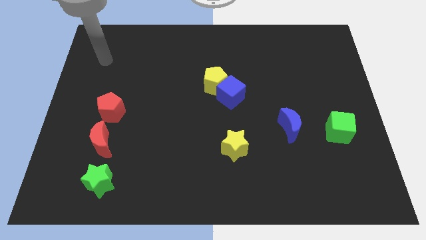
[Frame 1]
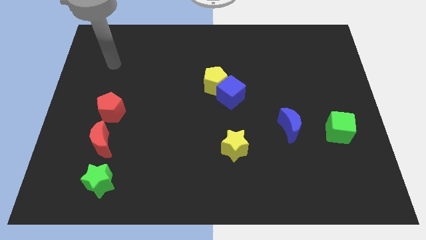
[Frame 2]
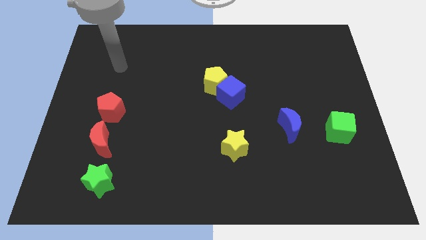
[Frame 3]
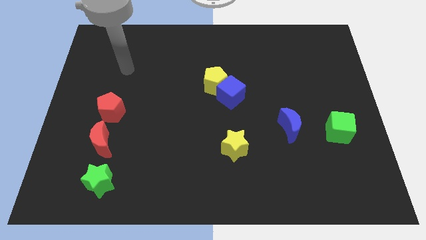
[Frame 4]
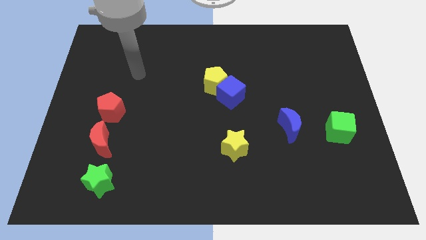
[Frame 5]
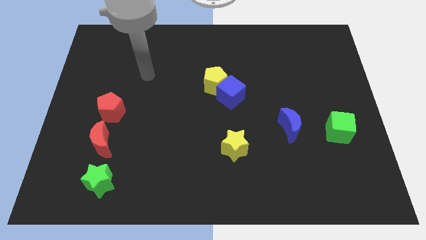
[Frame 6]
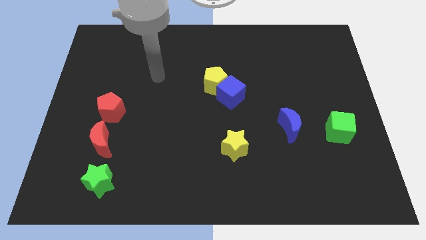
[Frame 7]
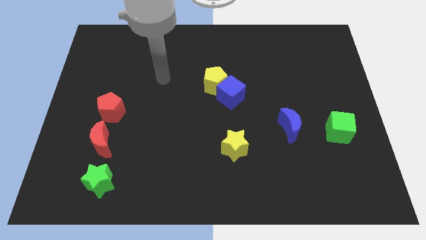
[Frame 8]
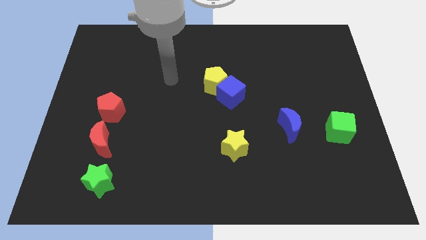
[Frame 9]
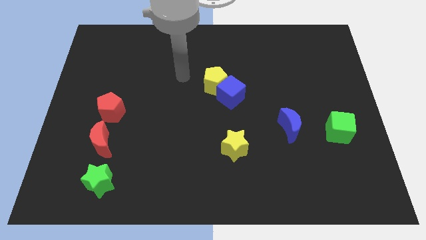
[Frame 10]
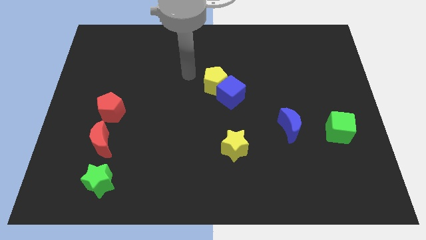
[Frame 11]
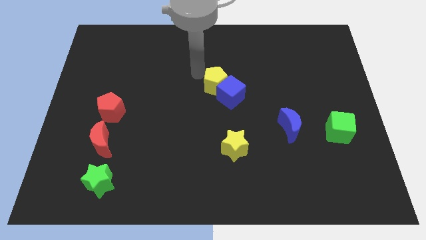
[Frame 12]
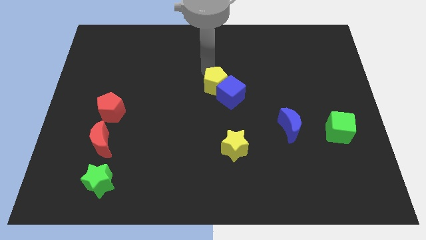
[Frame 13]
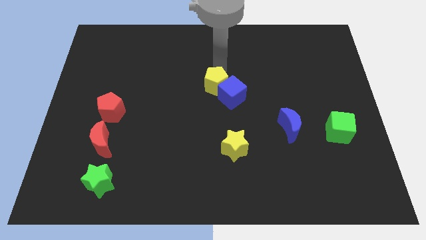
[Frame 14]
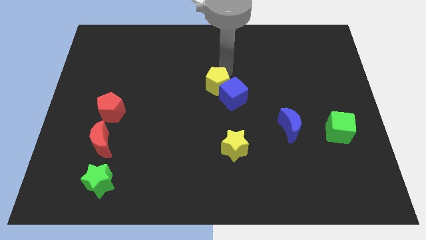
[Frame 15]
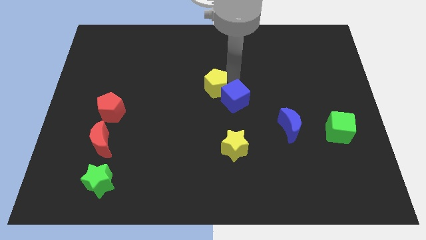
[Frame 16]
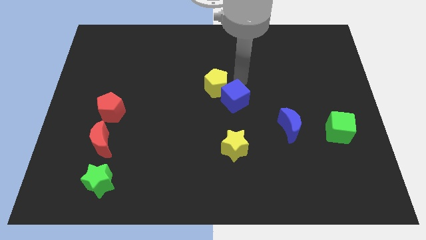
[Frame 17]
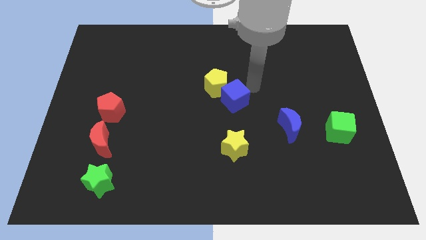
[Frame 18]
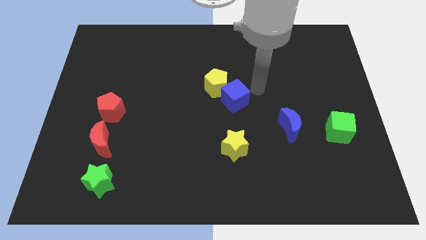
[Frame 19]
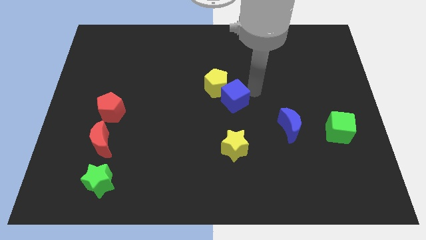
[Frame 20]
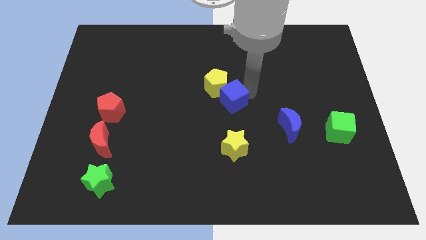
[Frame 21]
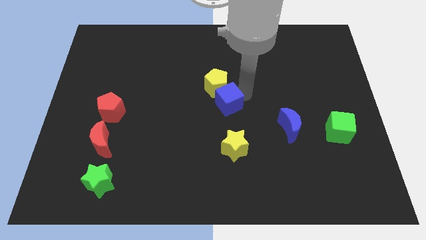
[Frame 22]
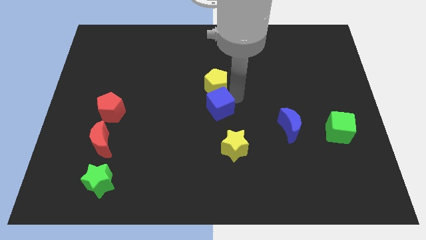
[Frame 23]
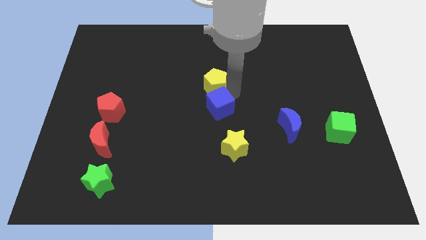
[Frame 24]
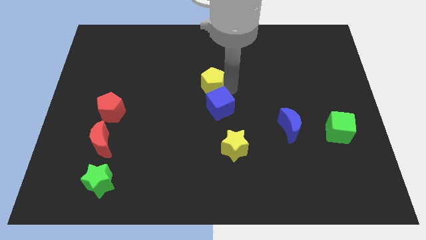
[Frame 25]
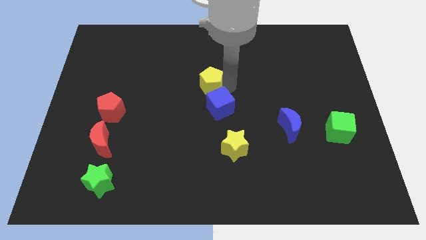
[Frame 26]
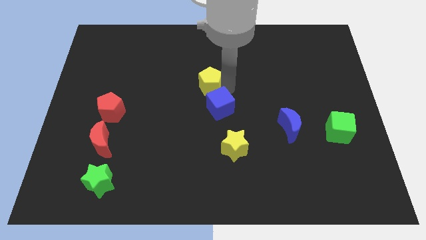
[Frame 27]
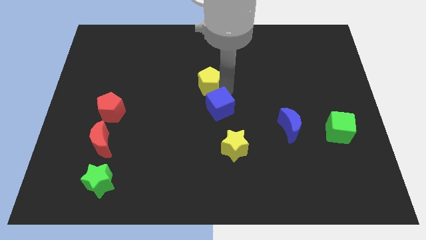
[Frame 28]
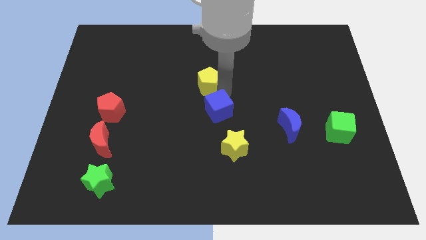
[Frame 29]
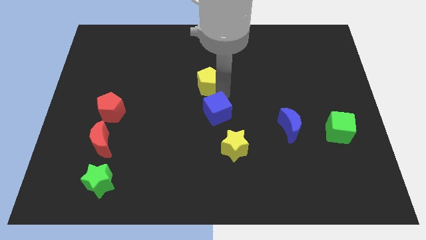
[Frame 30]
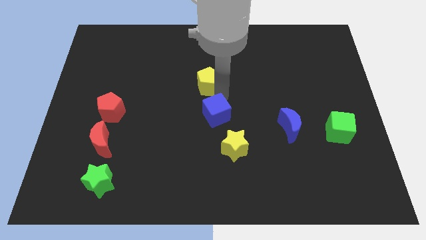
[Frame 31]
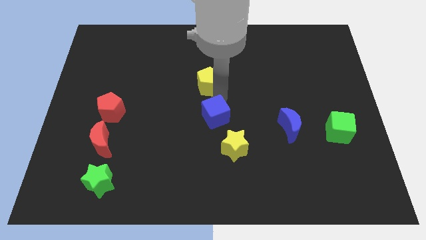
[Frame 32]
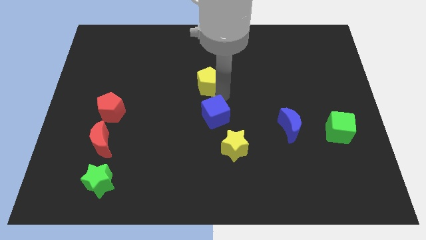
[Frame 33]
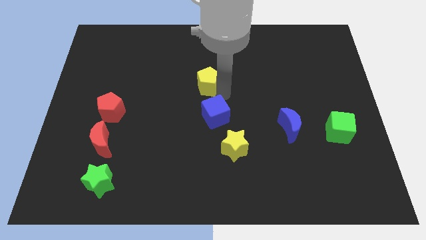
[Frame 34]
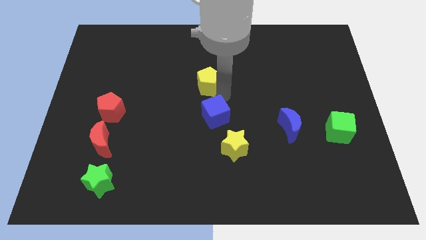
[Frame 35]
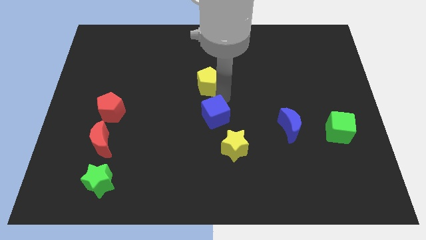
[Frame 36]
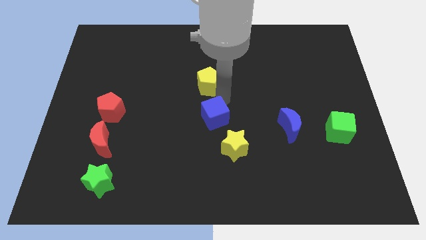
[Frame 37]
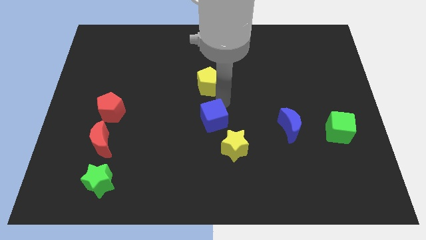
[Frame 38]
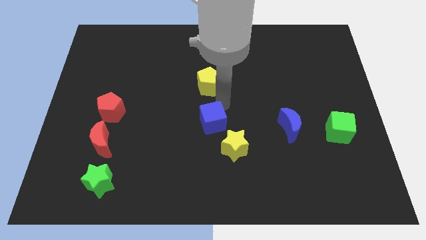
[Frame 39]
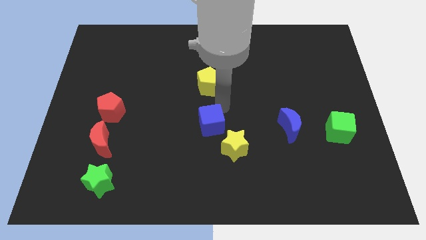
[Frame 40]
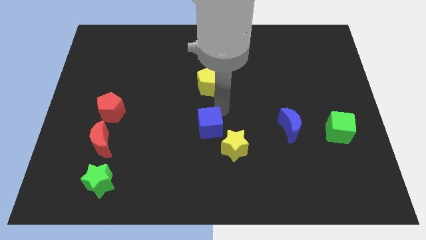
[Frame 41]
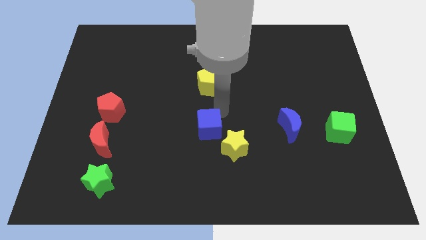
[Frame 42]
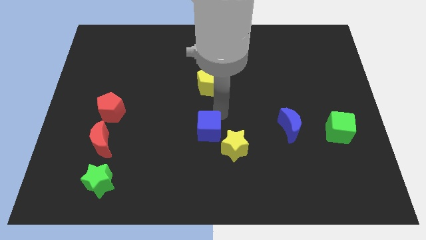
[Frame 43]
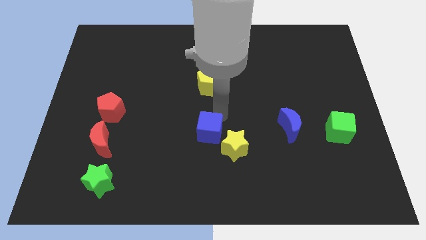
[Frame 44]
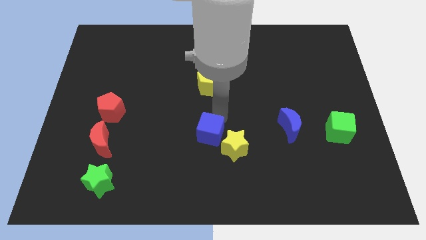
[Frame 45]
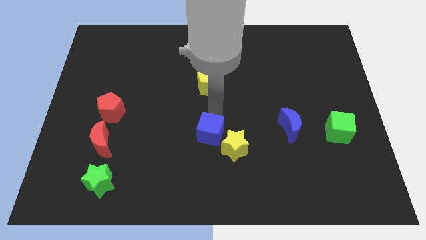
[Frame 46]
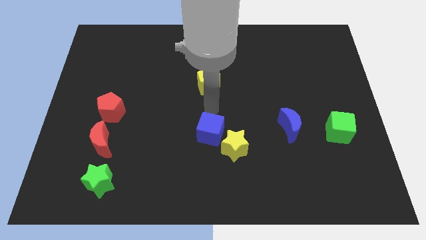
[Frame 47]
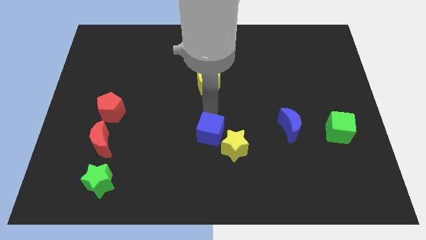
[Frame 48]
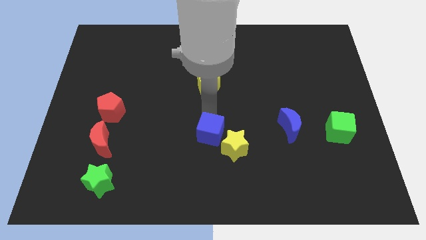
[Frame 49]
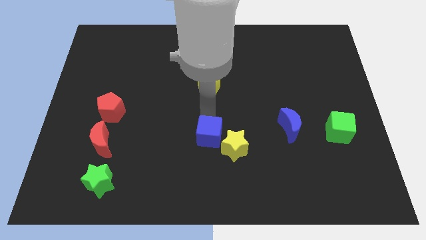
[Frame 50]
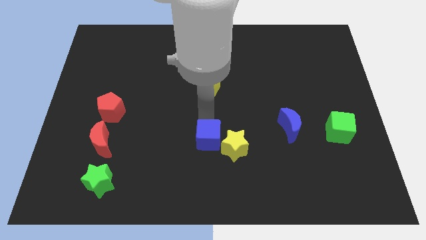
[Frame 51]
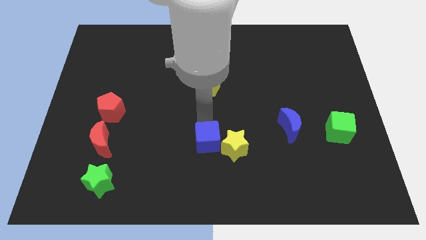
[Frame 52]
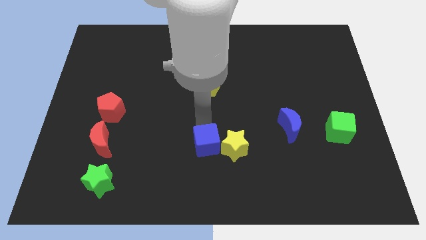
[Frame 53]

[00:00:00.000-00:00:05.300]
move the blue cube to the bottom left of the yellow star

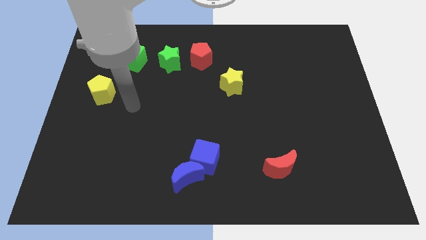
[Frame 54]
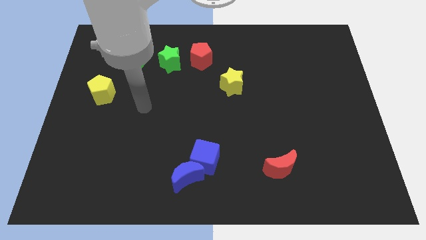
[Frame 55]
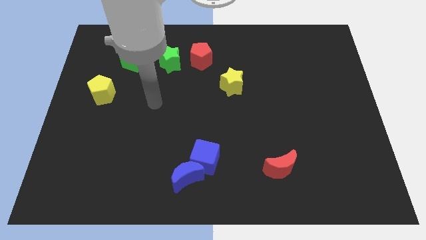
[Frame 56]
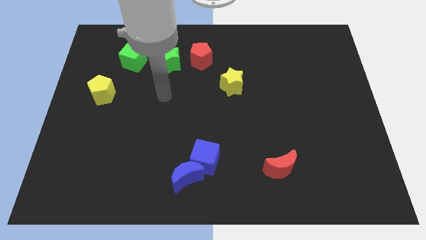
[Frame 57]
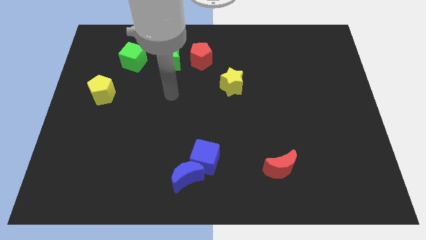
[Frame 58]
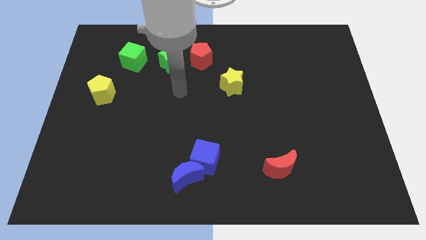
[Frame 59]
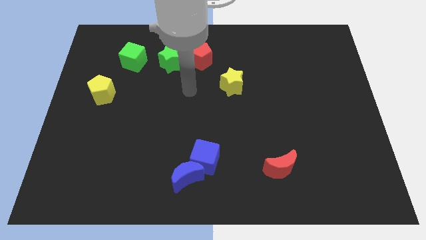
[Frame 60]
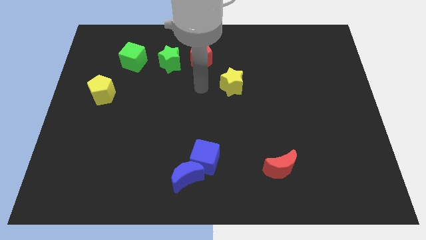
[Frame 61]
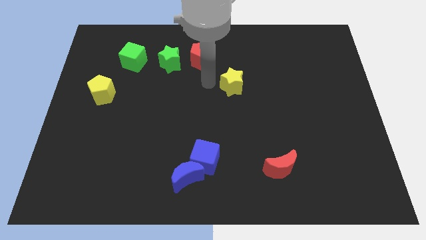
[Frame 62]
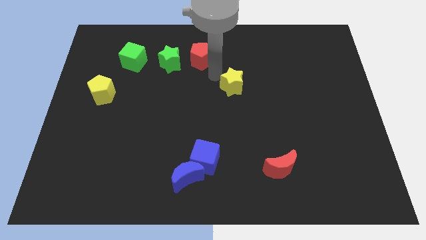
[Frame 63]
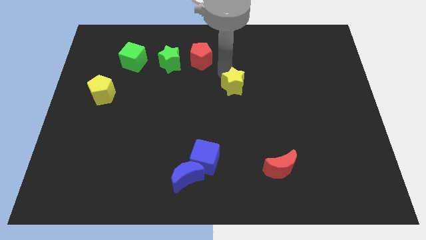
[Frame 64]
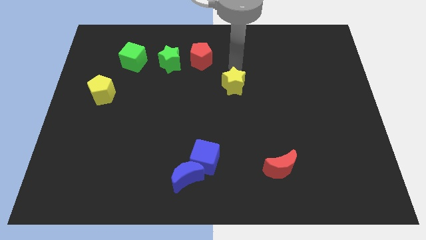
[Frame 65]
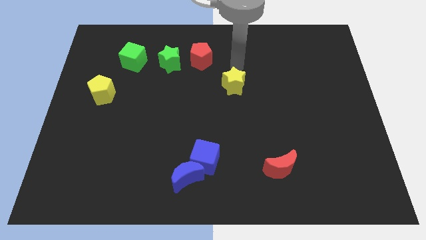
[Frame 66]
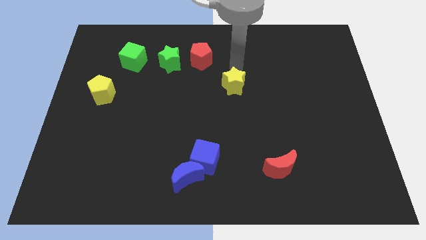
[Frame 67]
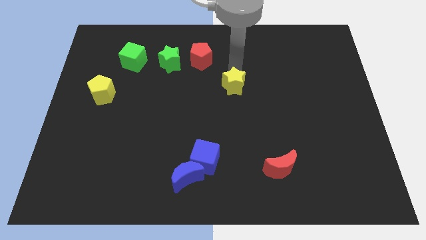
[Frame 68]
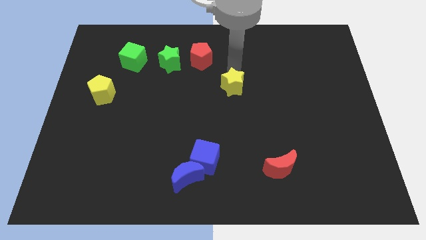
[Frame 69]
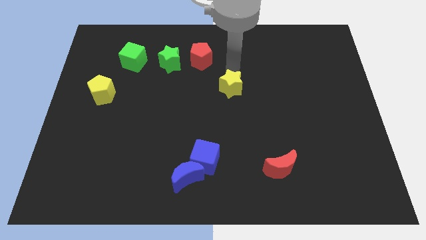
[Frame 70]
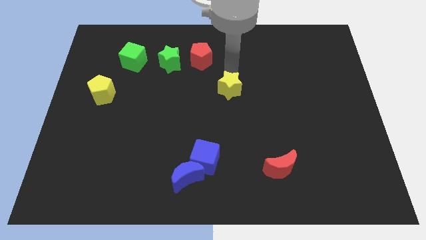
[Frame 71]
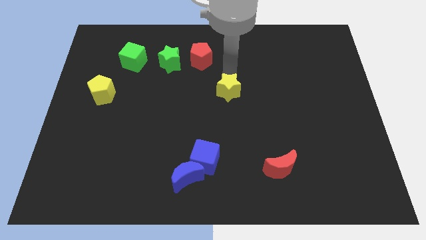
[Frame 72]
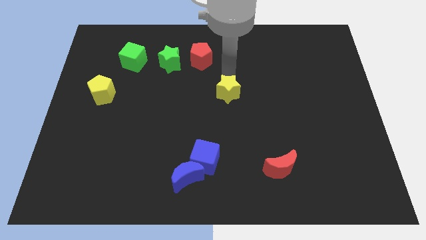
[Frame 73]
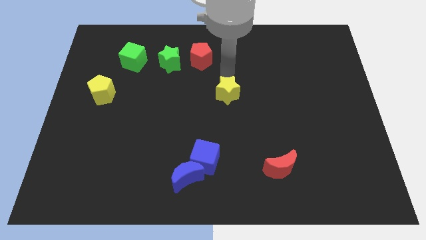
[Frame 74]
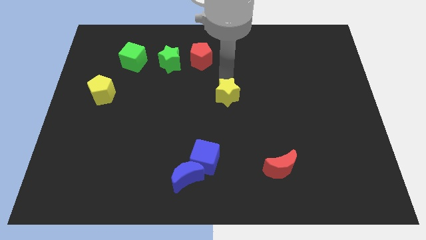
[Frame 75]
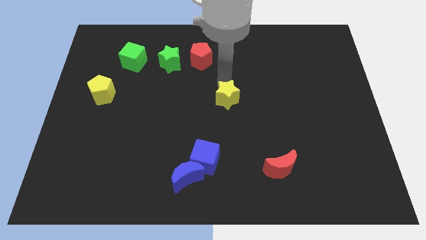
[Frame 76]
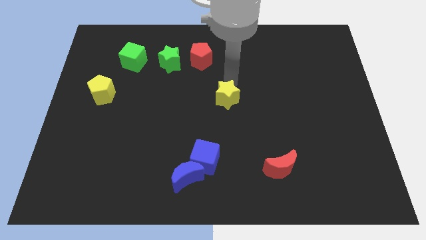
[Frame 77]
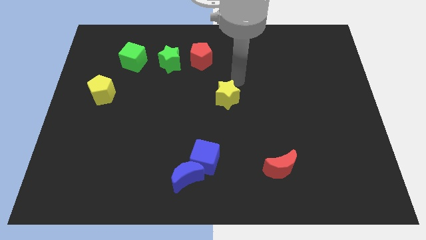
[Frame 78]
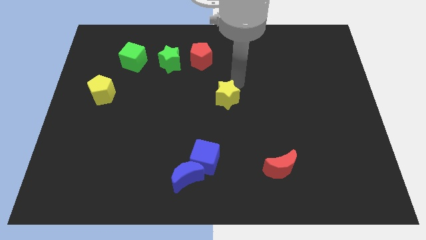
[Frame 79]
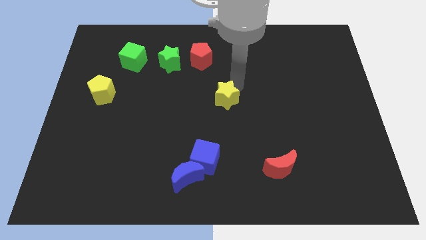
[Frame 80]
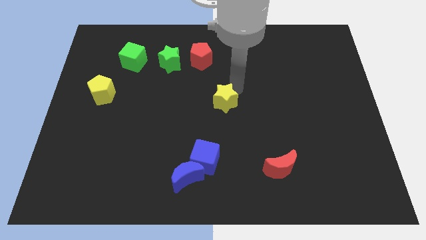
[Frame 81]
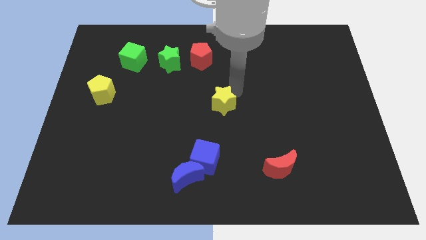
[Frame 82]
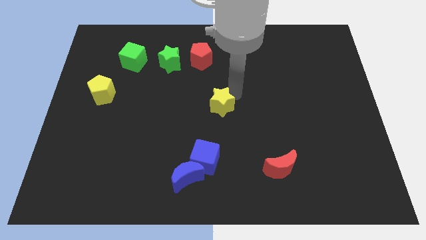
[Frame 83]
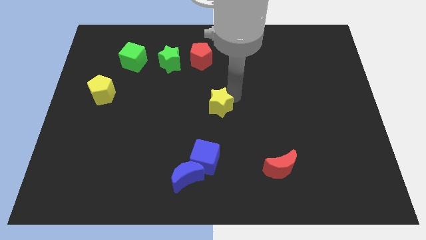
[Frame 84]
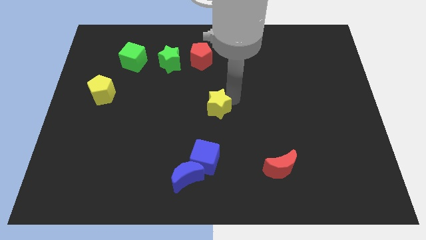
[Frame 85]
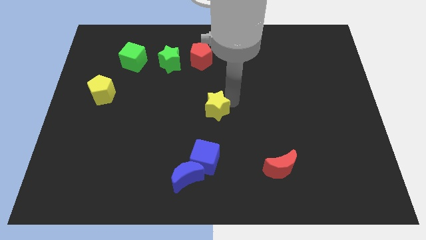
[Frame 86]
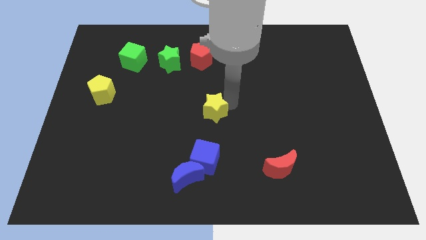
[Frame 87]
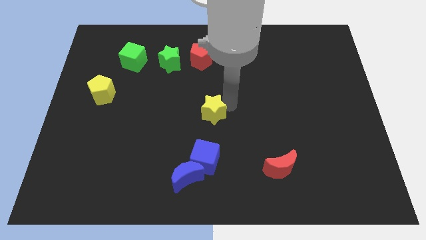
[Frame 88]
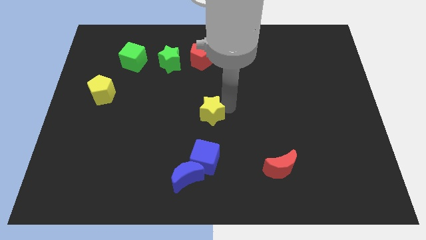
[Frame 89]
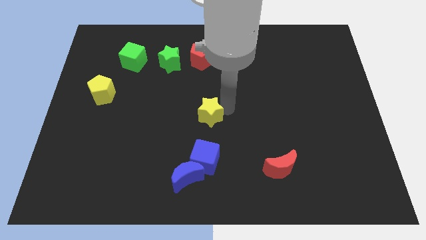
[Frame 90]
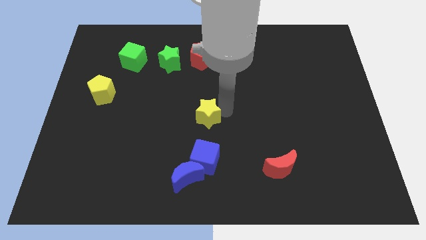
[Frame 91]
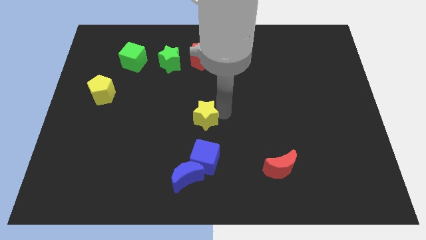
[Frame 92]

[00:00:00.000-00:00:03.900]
slide the yellow star above the blue moon
